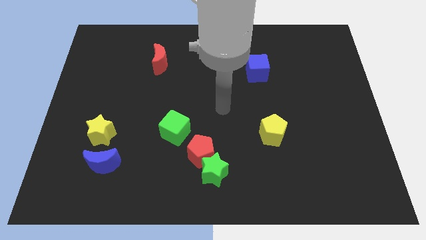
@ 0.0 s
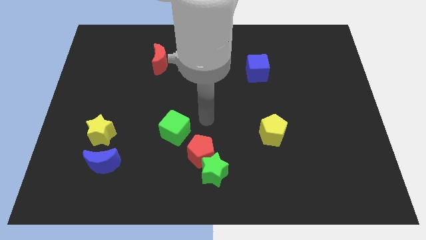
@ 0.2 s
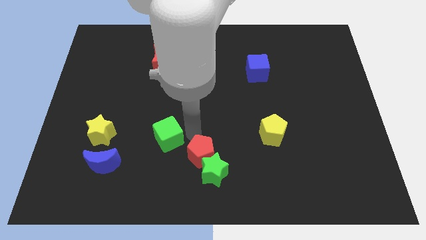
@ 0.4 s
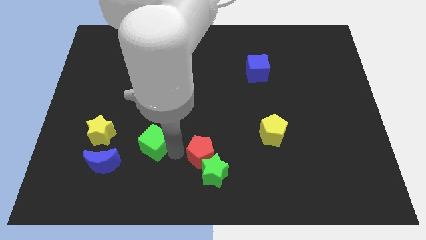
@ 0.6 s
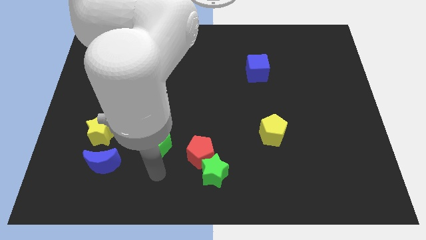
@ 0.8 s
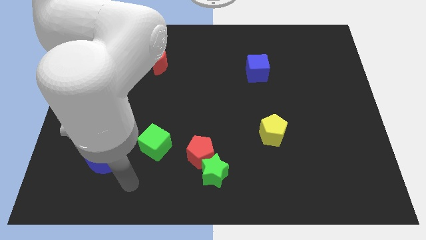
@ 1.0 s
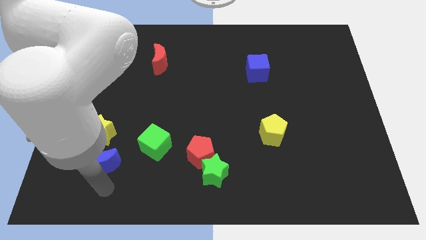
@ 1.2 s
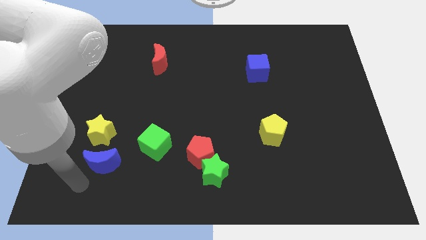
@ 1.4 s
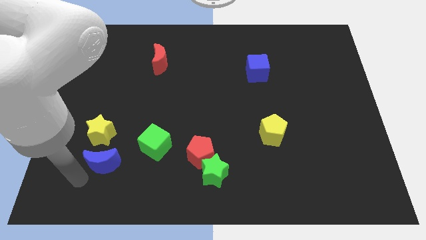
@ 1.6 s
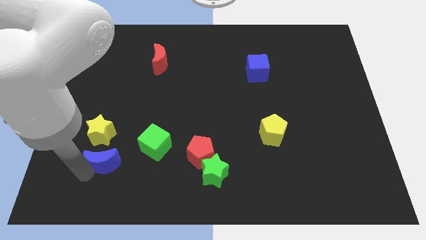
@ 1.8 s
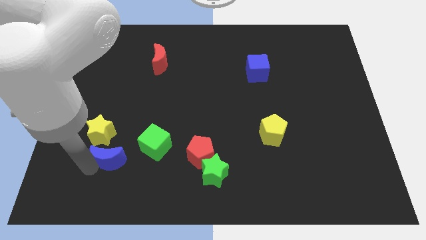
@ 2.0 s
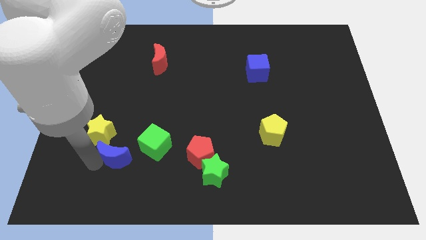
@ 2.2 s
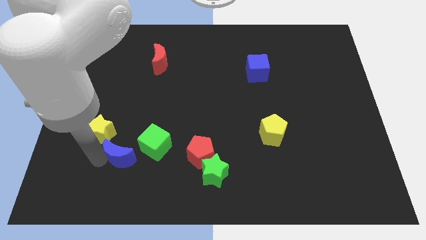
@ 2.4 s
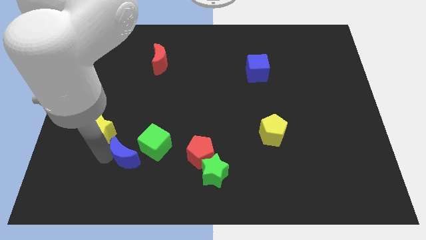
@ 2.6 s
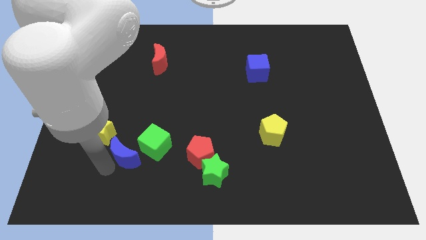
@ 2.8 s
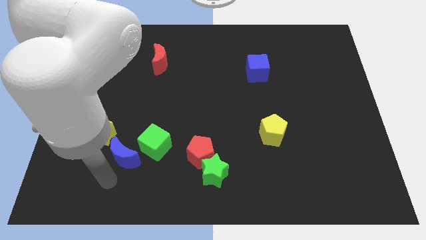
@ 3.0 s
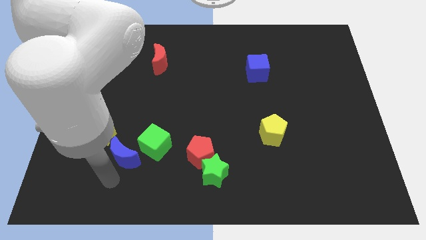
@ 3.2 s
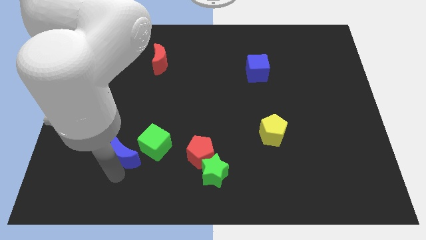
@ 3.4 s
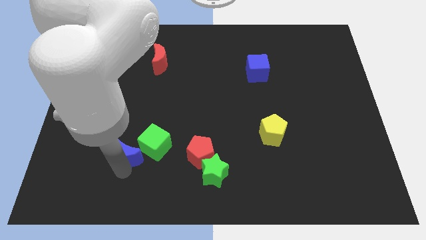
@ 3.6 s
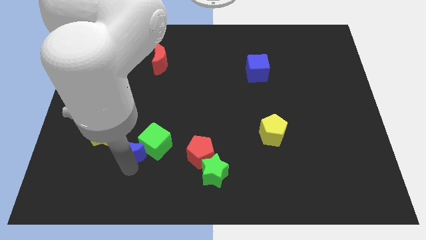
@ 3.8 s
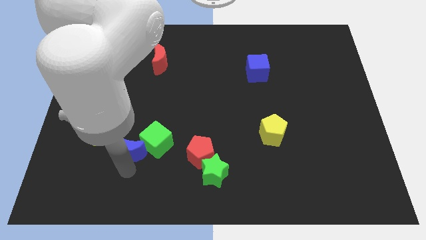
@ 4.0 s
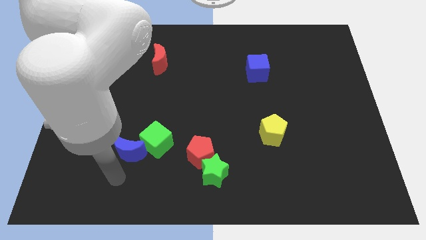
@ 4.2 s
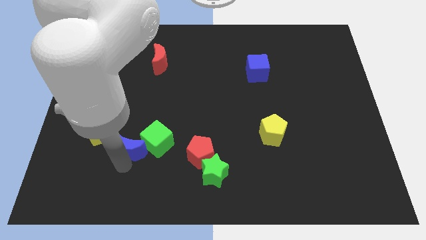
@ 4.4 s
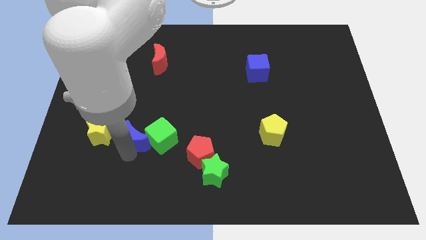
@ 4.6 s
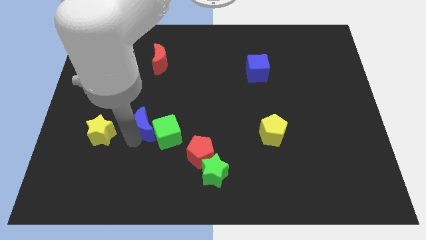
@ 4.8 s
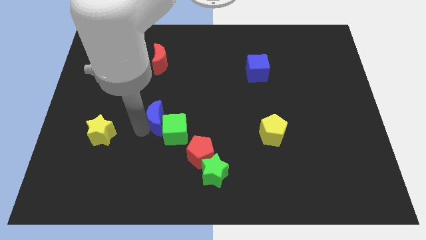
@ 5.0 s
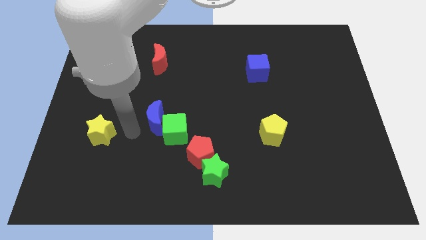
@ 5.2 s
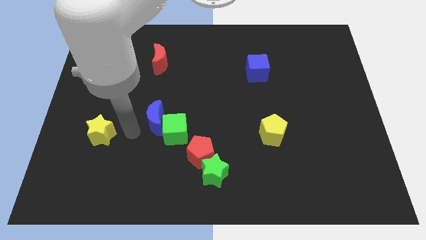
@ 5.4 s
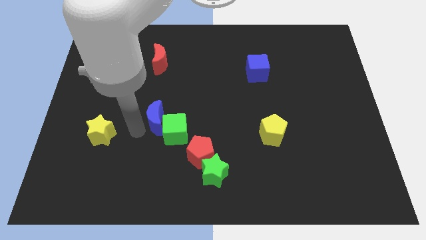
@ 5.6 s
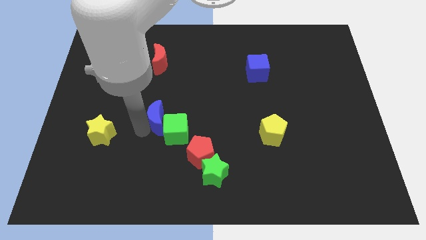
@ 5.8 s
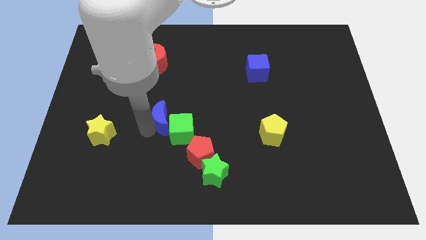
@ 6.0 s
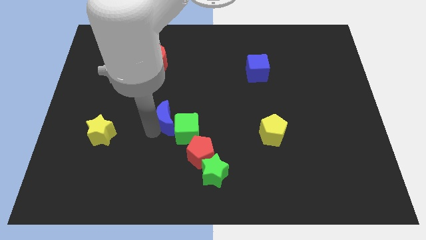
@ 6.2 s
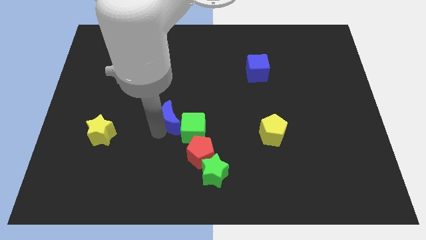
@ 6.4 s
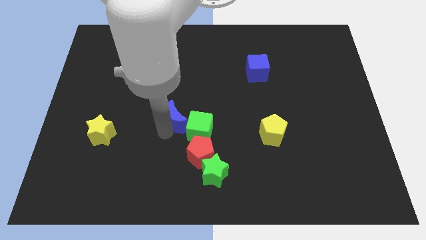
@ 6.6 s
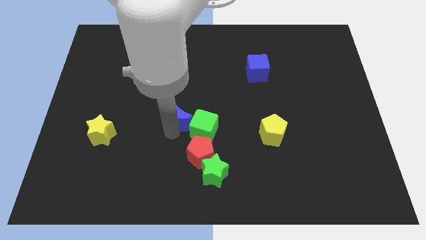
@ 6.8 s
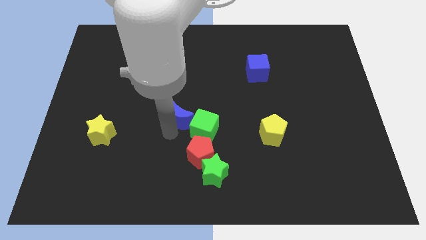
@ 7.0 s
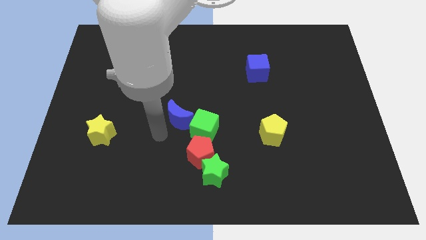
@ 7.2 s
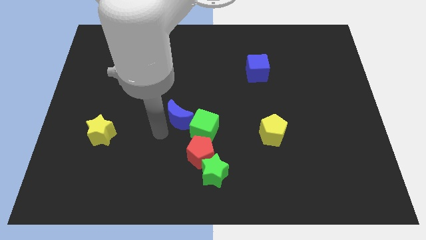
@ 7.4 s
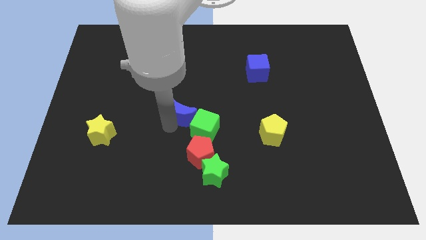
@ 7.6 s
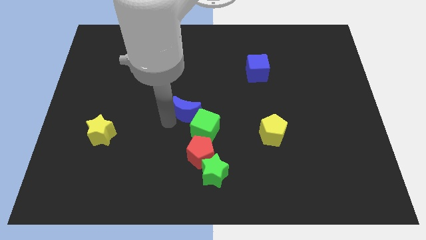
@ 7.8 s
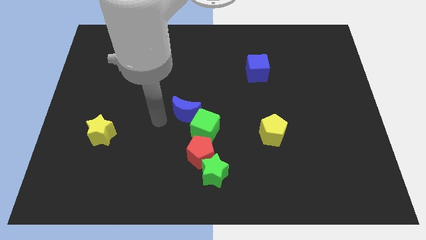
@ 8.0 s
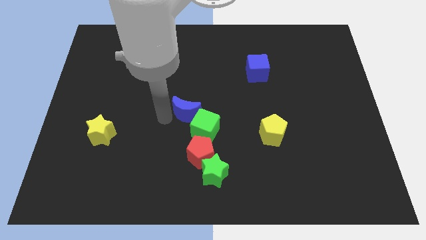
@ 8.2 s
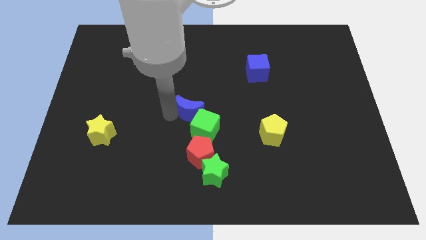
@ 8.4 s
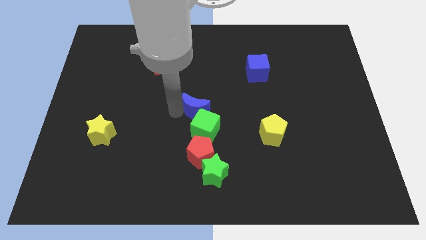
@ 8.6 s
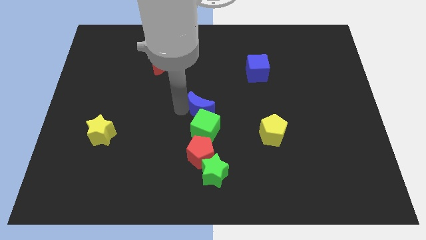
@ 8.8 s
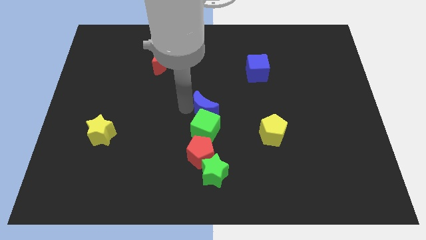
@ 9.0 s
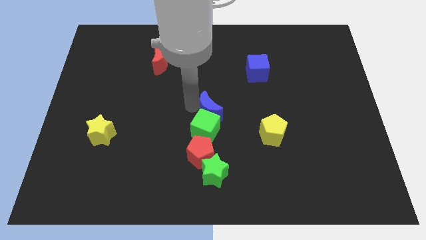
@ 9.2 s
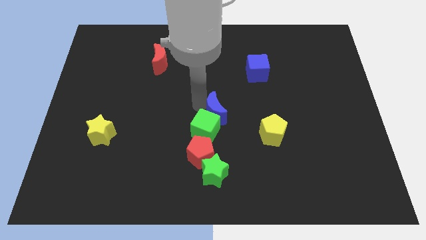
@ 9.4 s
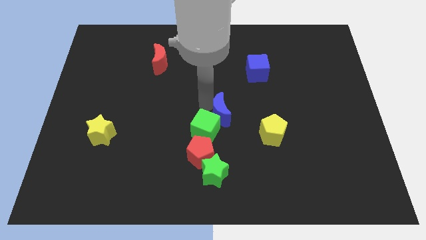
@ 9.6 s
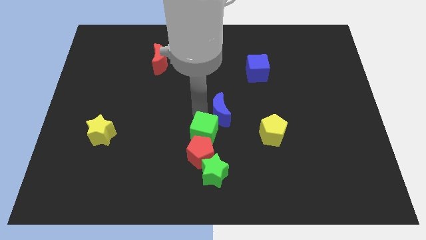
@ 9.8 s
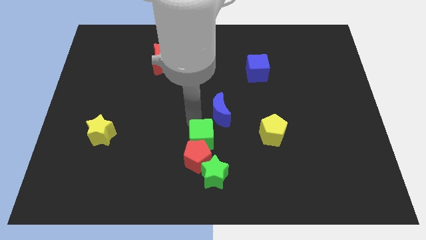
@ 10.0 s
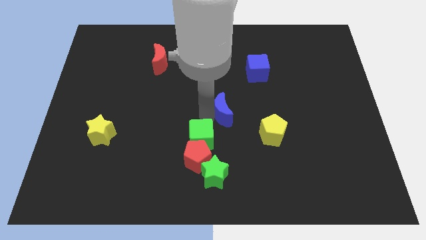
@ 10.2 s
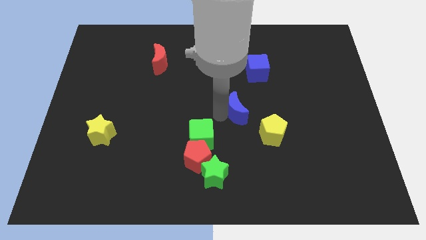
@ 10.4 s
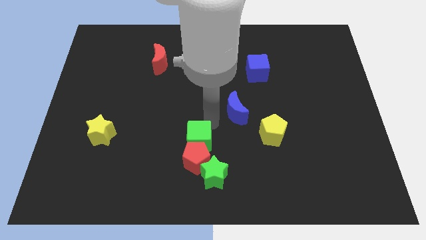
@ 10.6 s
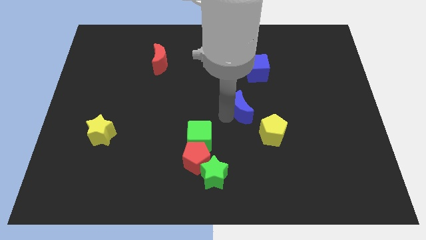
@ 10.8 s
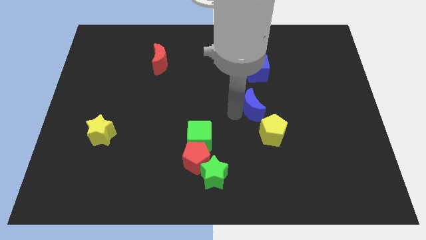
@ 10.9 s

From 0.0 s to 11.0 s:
slide the blue moon to the top of the yellow pentagon

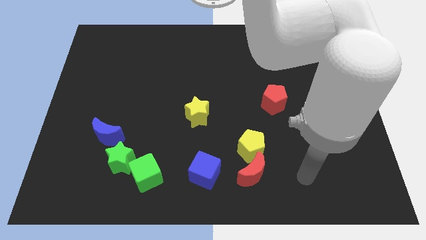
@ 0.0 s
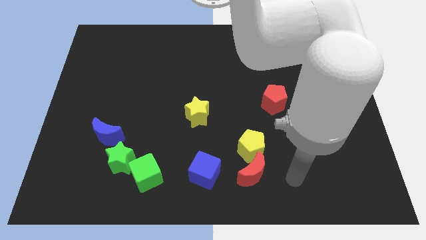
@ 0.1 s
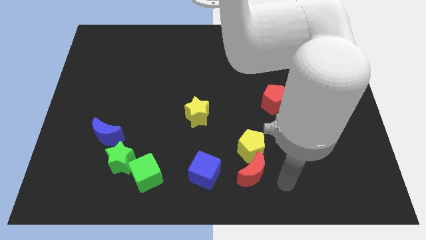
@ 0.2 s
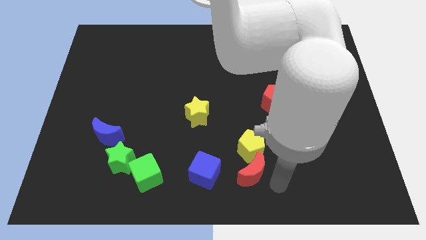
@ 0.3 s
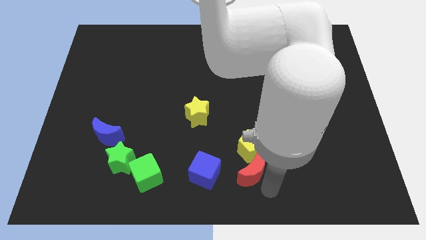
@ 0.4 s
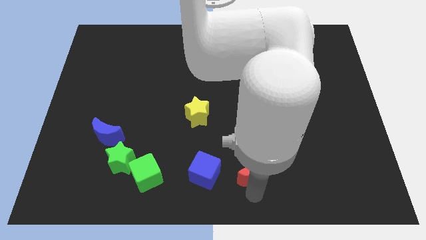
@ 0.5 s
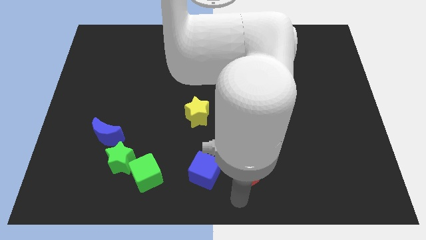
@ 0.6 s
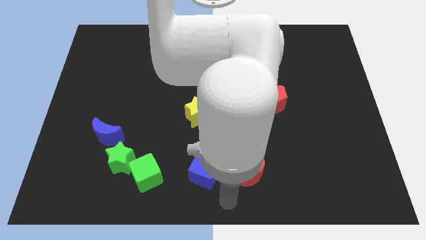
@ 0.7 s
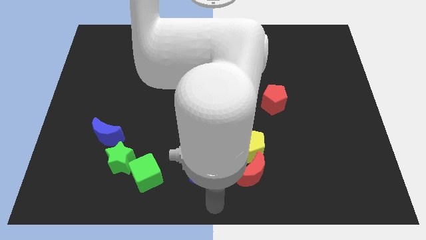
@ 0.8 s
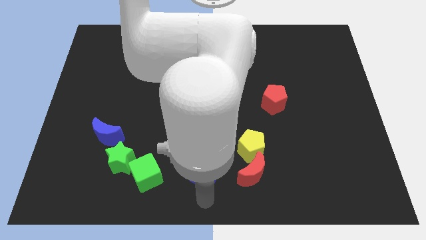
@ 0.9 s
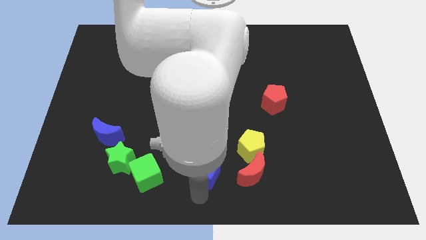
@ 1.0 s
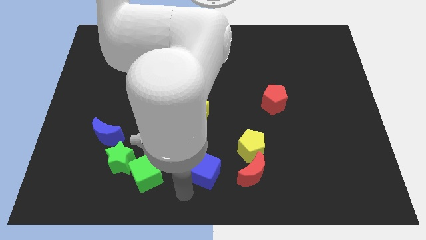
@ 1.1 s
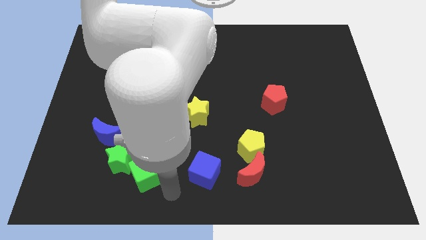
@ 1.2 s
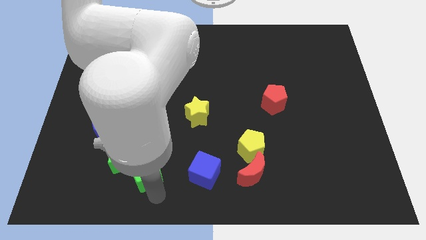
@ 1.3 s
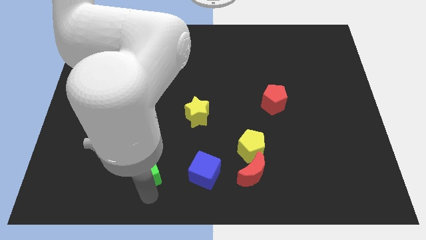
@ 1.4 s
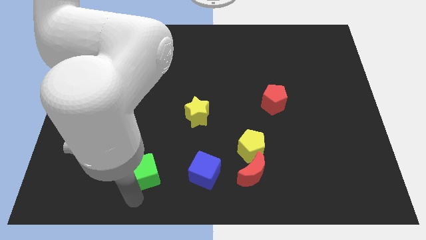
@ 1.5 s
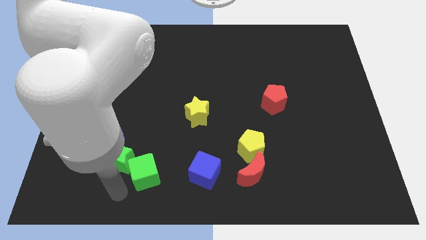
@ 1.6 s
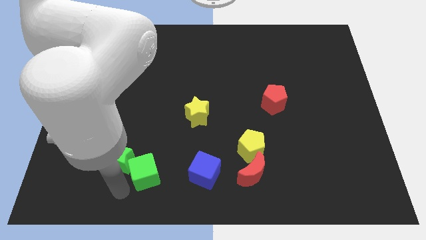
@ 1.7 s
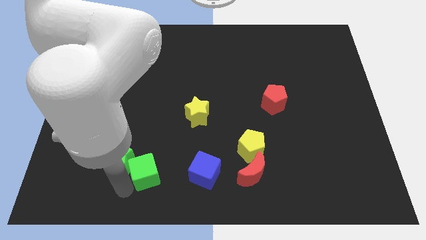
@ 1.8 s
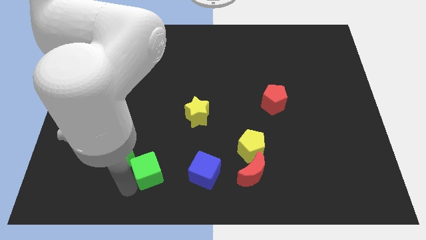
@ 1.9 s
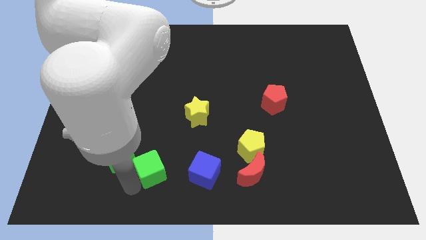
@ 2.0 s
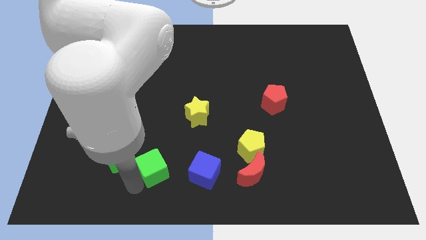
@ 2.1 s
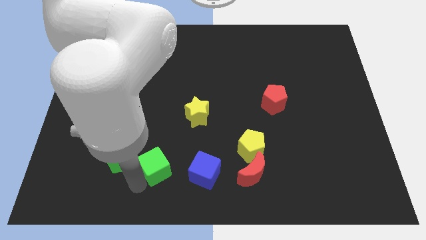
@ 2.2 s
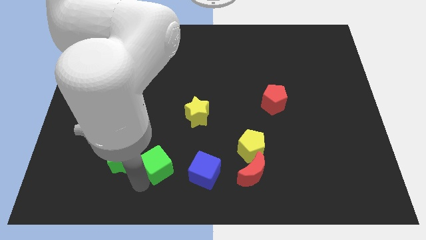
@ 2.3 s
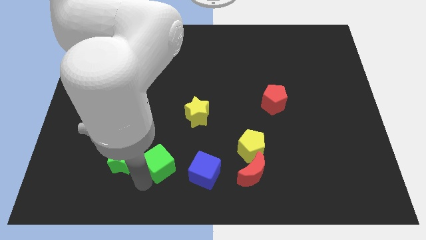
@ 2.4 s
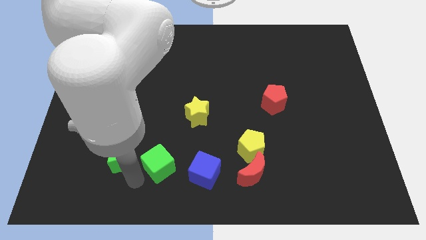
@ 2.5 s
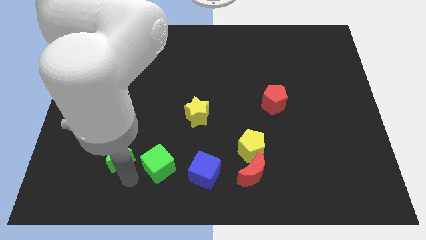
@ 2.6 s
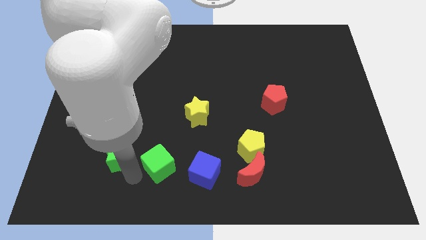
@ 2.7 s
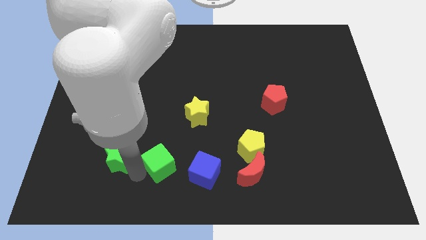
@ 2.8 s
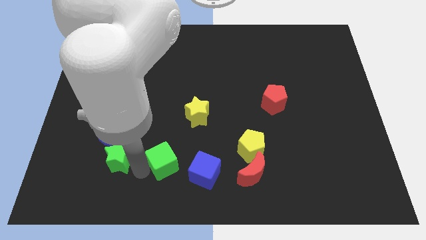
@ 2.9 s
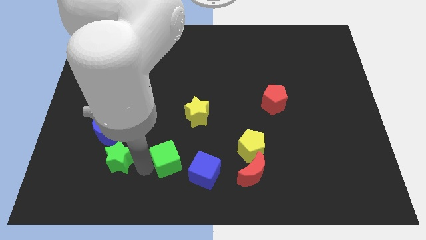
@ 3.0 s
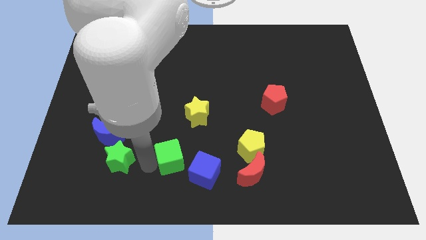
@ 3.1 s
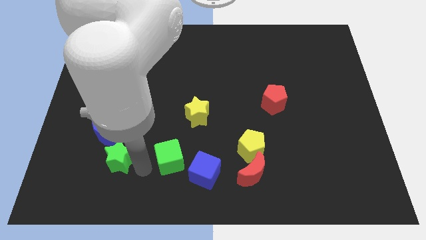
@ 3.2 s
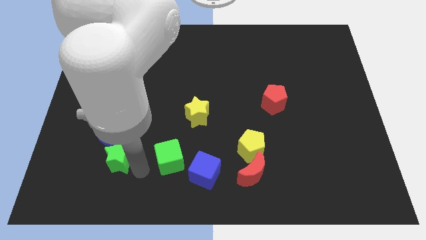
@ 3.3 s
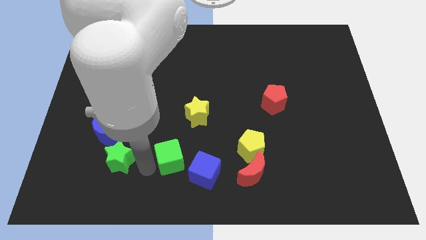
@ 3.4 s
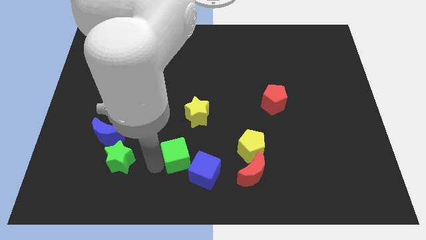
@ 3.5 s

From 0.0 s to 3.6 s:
slide the green cube just left of the yellow pentagon
